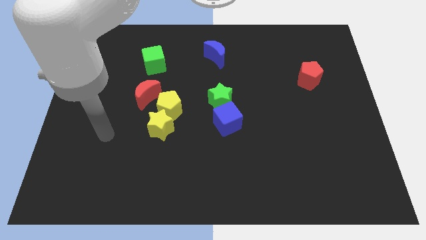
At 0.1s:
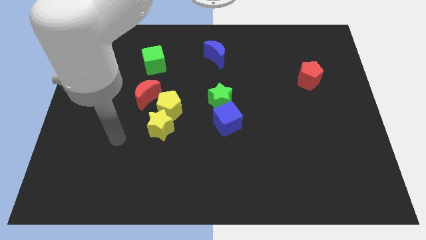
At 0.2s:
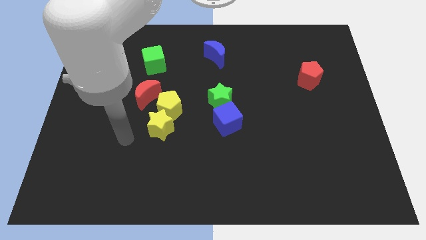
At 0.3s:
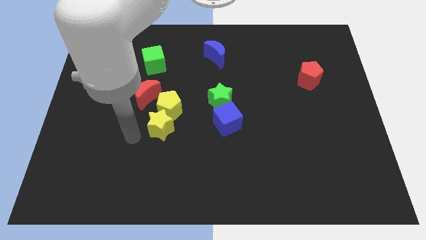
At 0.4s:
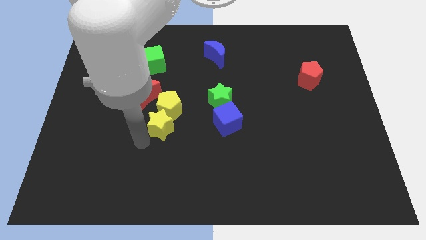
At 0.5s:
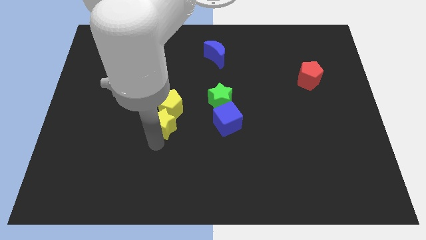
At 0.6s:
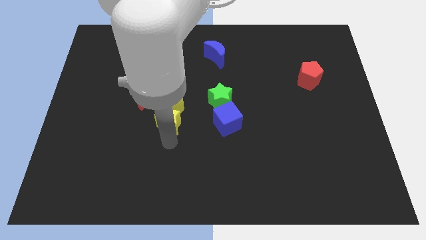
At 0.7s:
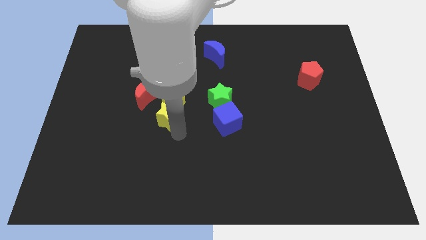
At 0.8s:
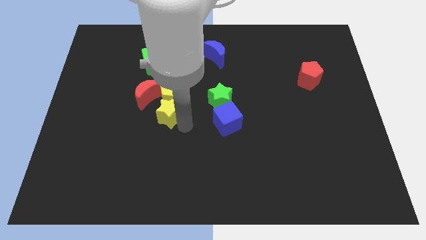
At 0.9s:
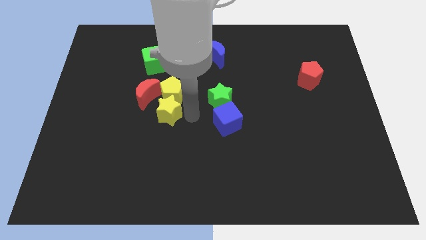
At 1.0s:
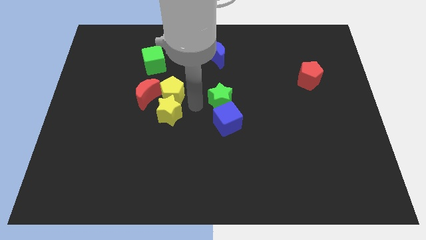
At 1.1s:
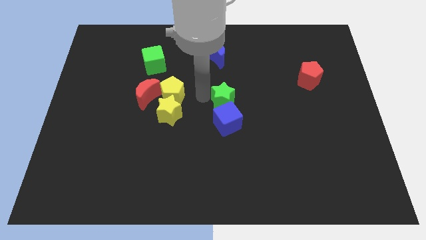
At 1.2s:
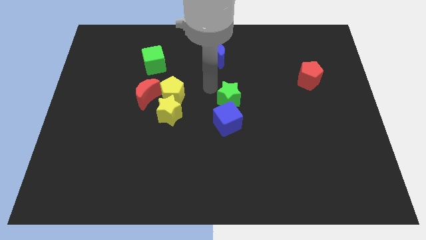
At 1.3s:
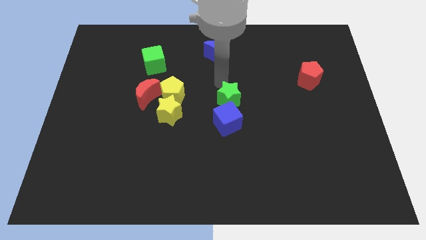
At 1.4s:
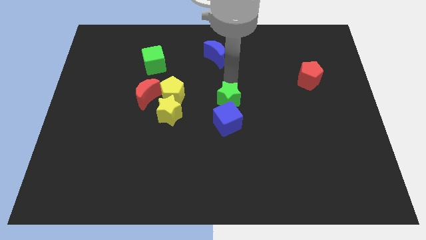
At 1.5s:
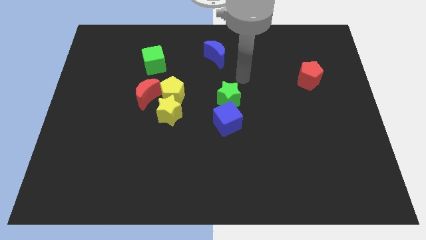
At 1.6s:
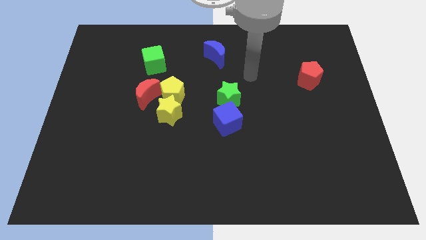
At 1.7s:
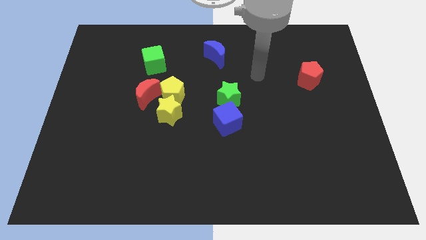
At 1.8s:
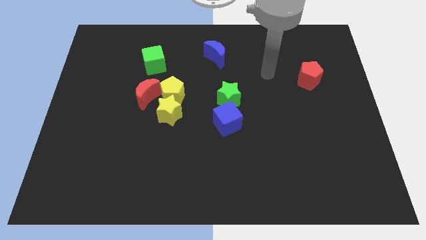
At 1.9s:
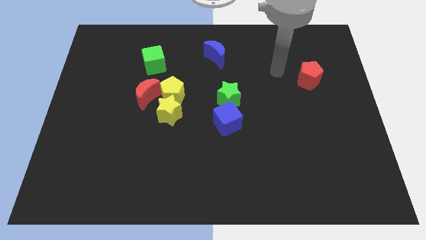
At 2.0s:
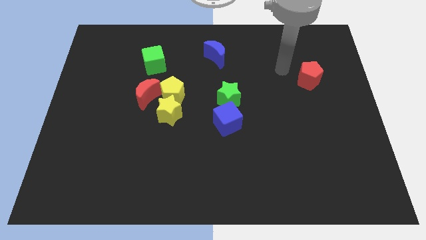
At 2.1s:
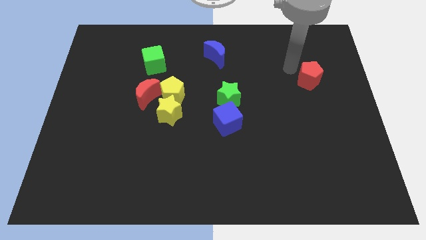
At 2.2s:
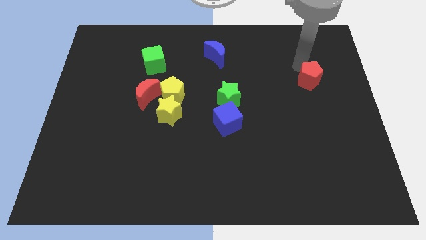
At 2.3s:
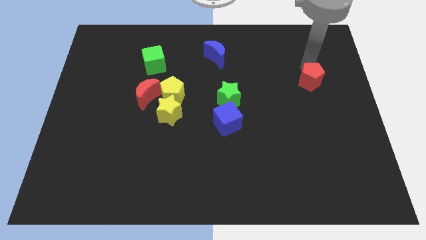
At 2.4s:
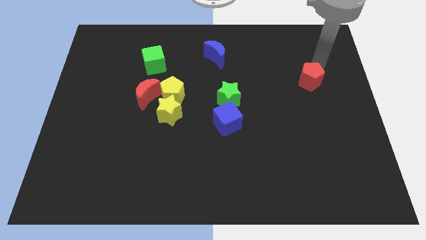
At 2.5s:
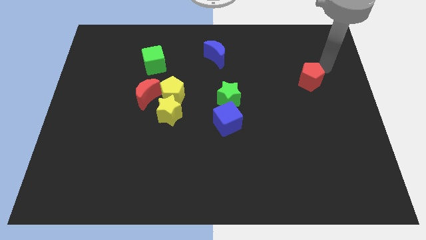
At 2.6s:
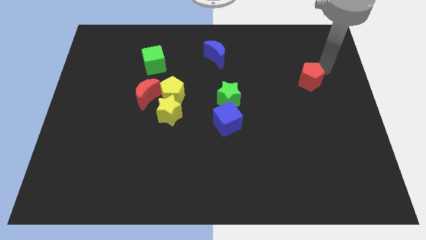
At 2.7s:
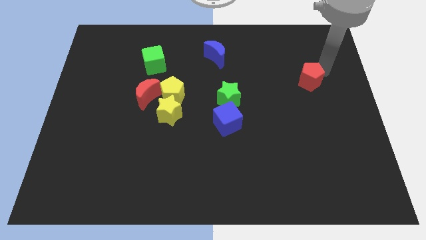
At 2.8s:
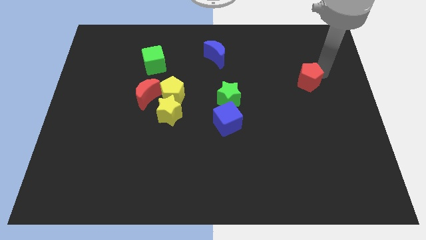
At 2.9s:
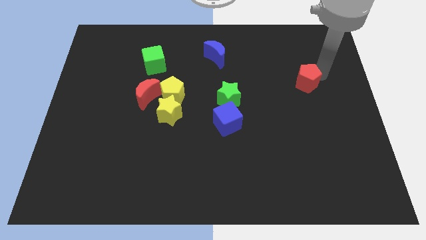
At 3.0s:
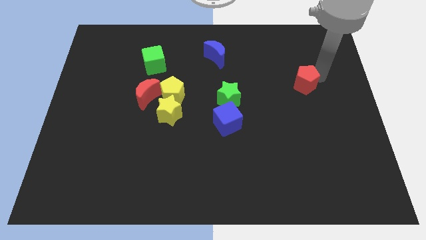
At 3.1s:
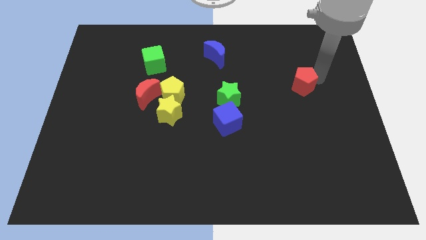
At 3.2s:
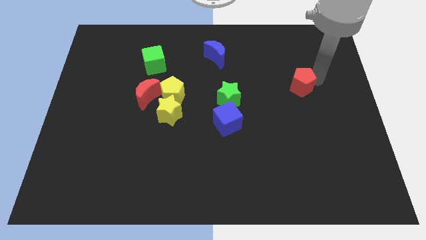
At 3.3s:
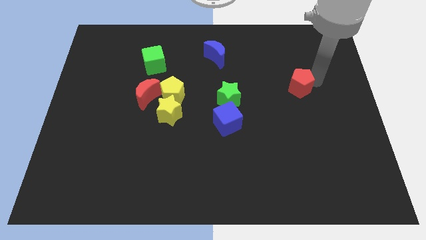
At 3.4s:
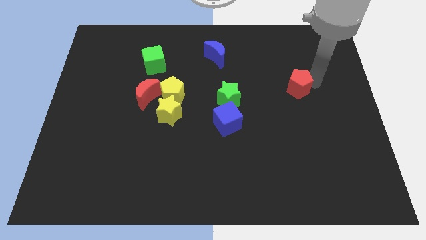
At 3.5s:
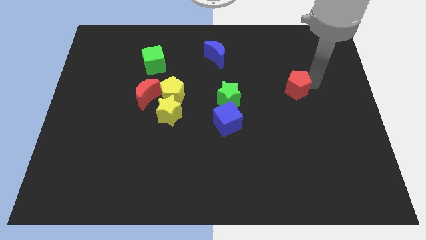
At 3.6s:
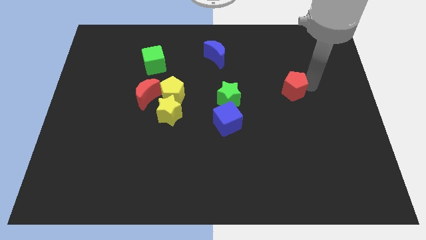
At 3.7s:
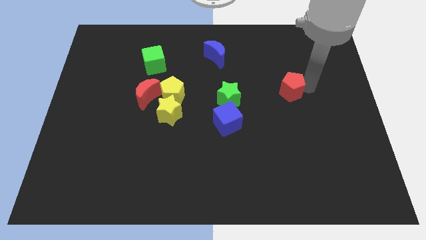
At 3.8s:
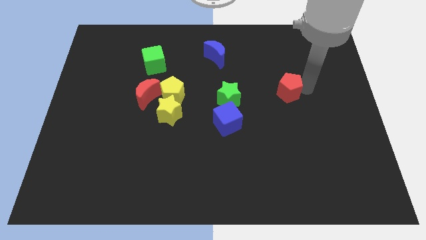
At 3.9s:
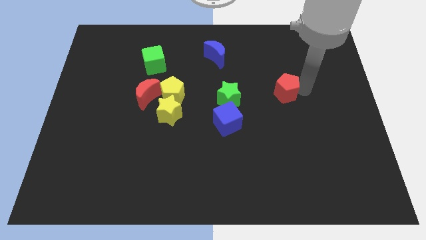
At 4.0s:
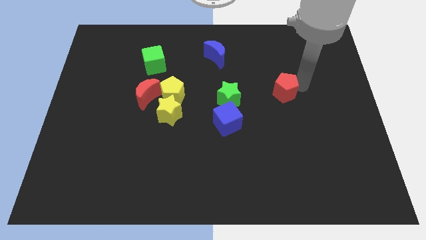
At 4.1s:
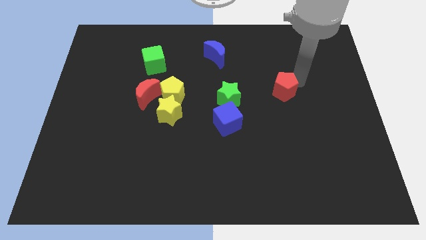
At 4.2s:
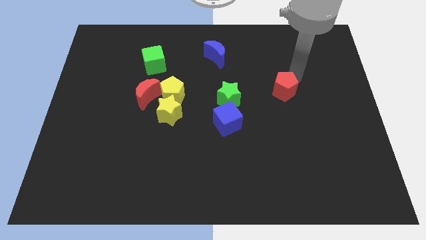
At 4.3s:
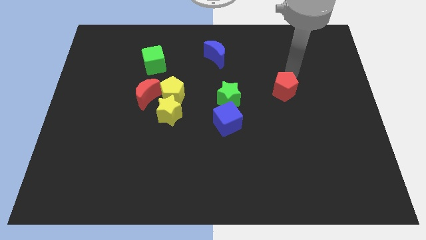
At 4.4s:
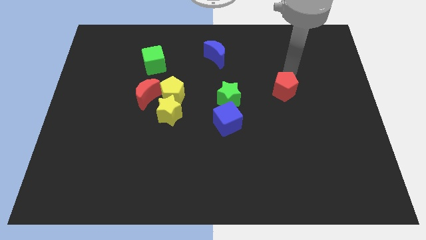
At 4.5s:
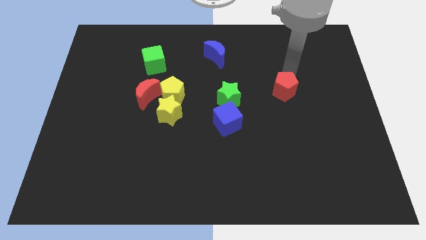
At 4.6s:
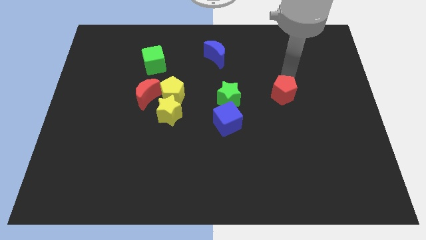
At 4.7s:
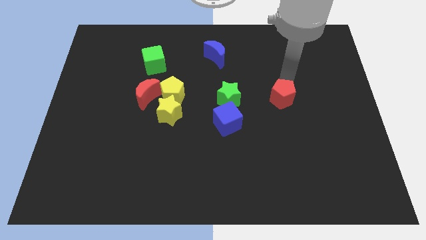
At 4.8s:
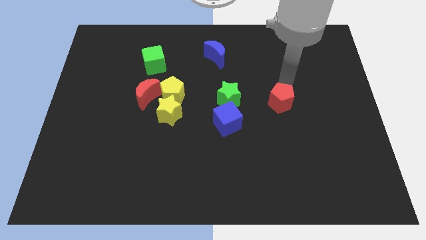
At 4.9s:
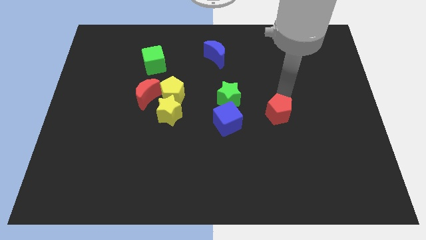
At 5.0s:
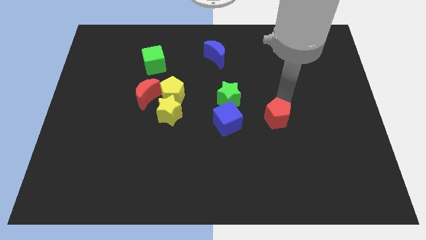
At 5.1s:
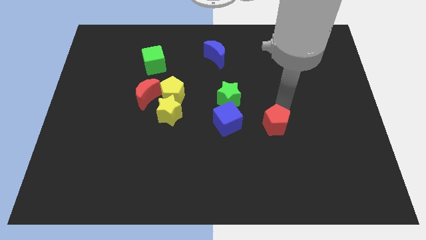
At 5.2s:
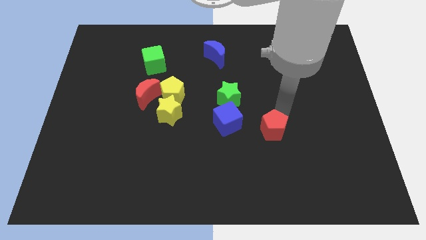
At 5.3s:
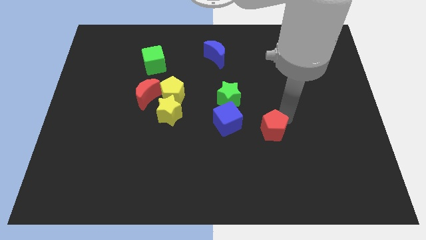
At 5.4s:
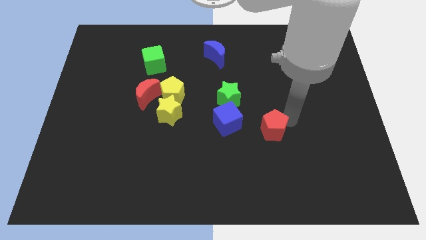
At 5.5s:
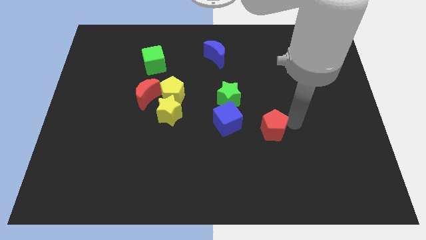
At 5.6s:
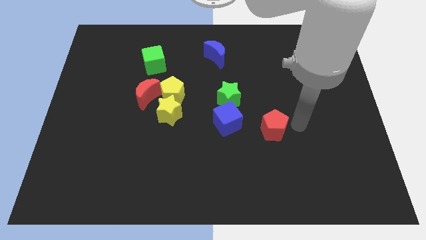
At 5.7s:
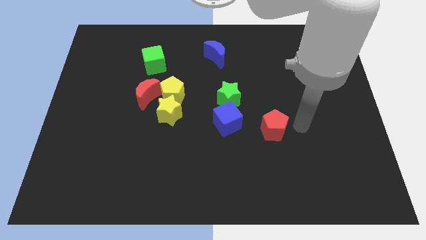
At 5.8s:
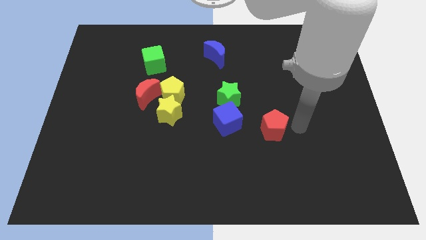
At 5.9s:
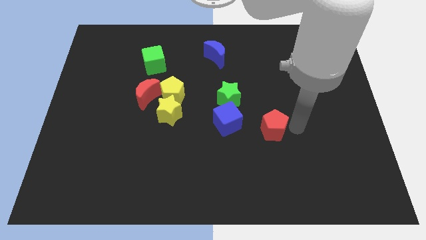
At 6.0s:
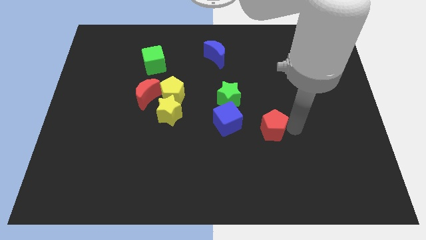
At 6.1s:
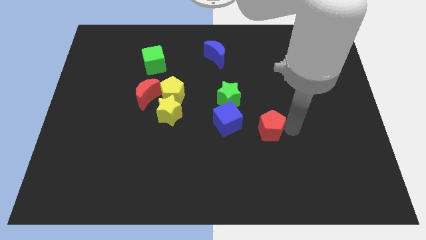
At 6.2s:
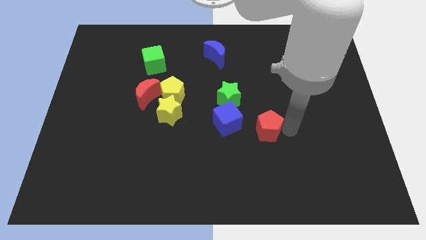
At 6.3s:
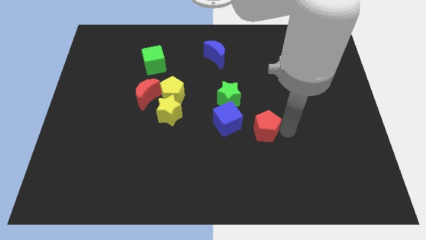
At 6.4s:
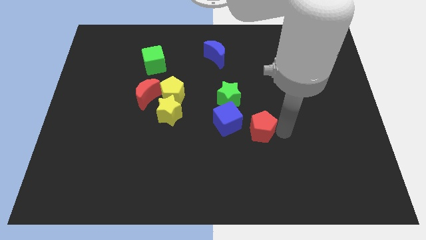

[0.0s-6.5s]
push the red pentagon down and then to the left

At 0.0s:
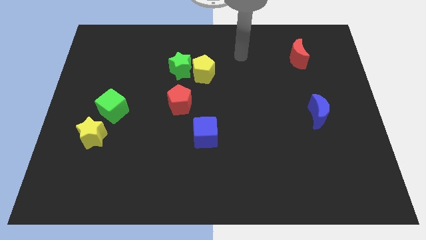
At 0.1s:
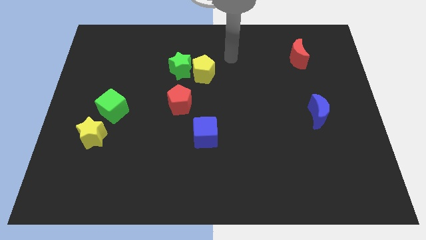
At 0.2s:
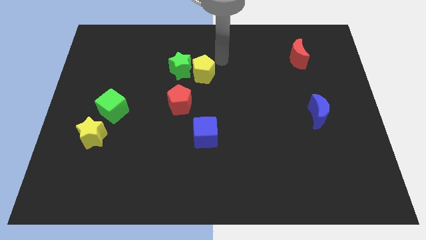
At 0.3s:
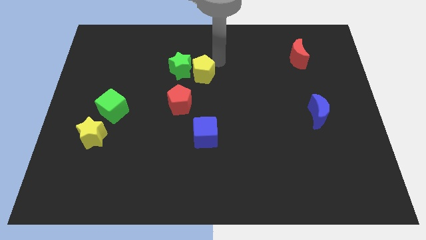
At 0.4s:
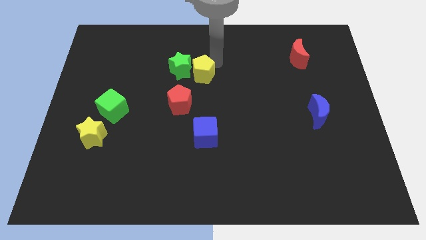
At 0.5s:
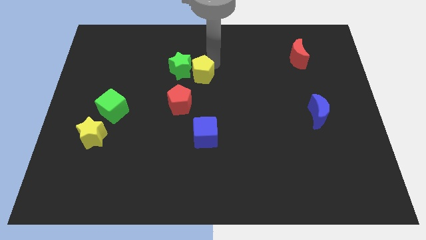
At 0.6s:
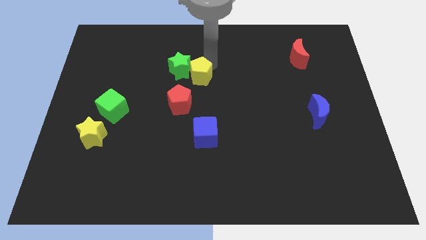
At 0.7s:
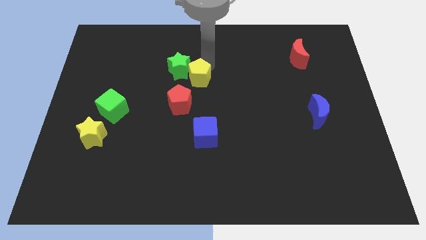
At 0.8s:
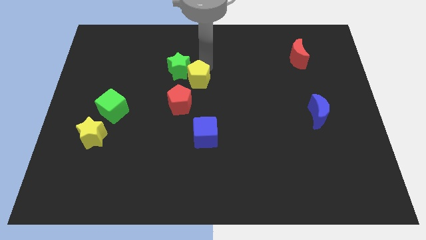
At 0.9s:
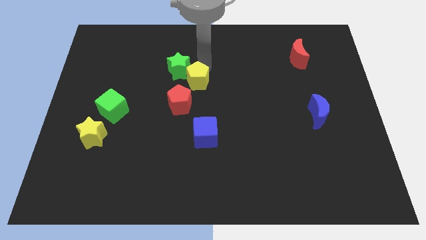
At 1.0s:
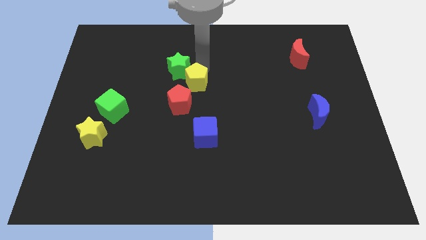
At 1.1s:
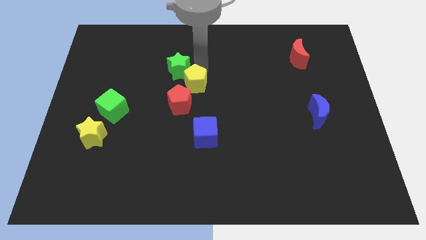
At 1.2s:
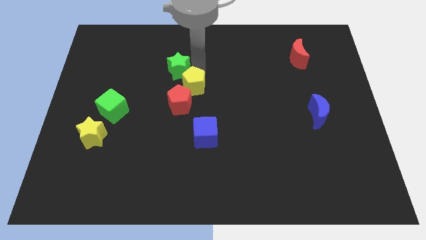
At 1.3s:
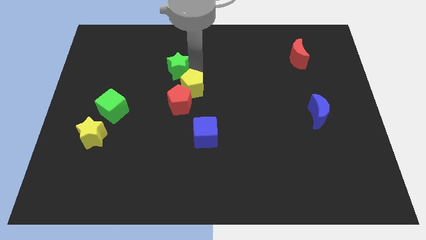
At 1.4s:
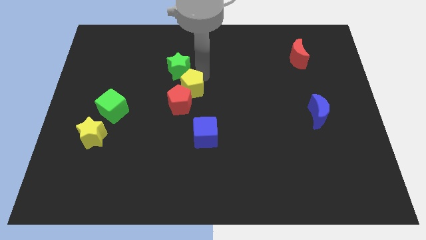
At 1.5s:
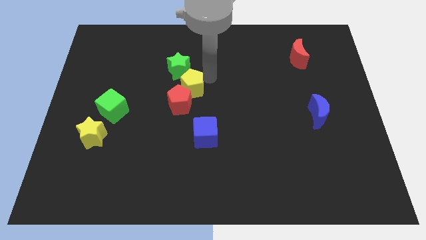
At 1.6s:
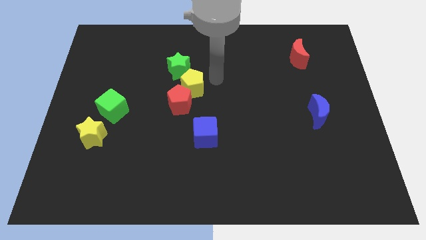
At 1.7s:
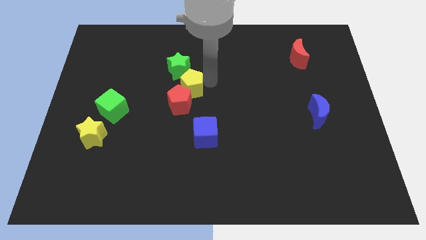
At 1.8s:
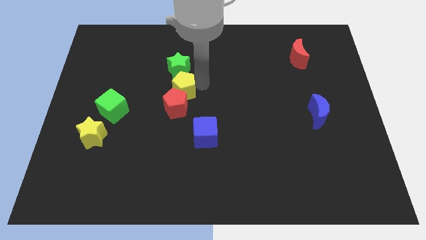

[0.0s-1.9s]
push the yellow pentagon somewhat down and left diagonally
